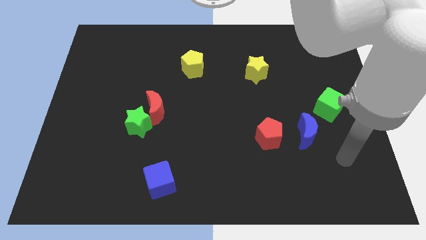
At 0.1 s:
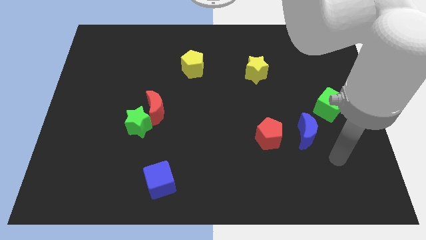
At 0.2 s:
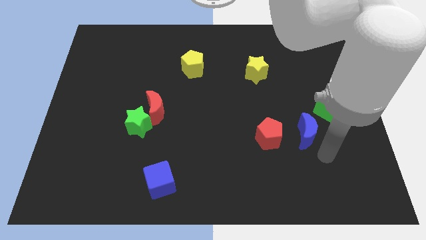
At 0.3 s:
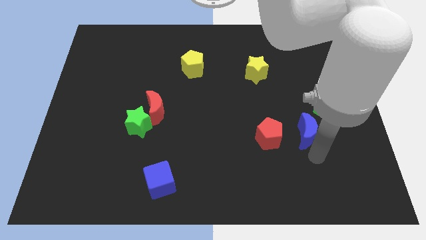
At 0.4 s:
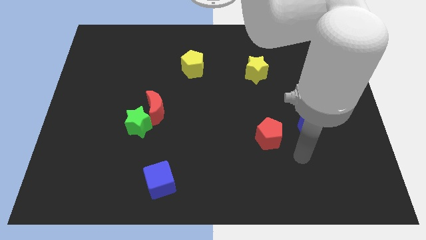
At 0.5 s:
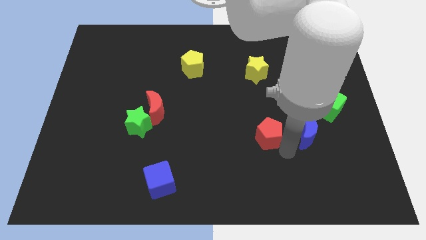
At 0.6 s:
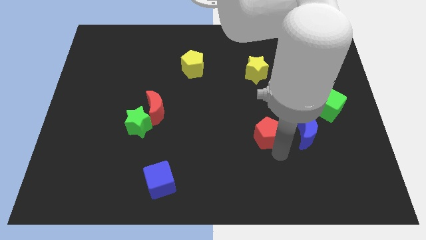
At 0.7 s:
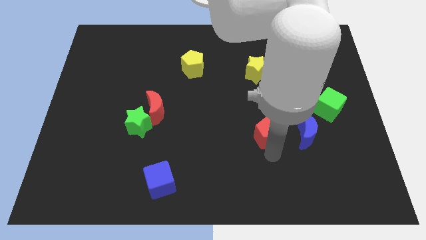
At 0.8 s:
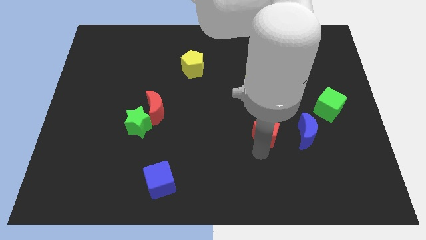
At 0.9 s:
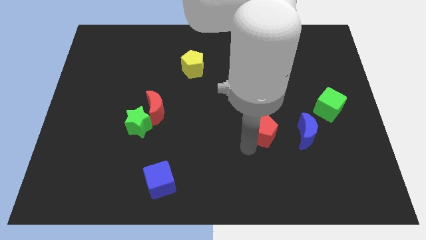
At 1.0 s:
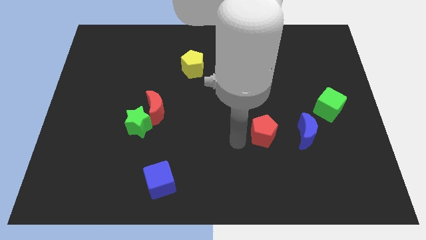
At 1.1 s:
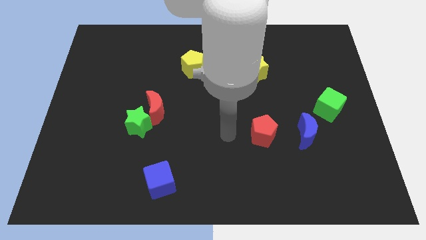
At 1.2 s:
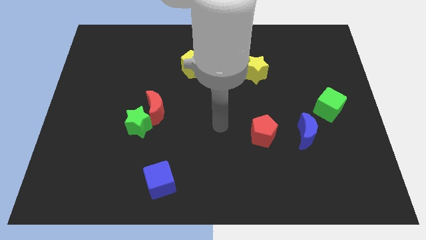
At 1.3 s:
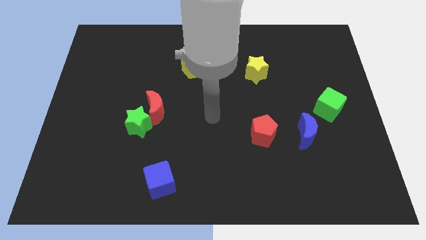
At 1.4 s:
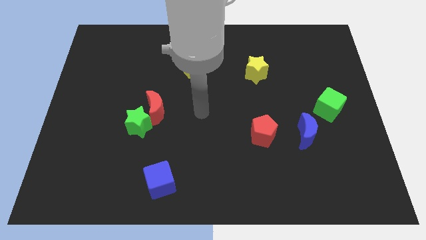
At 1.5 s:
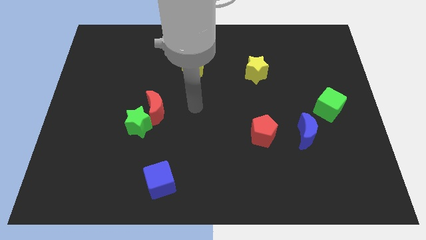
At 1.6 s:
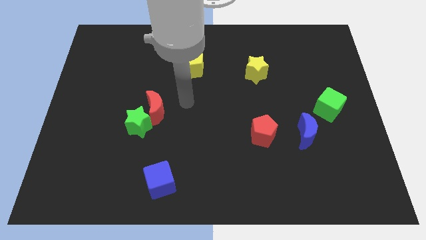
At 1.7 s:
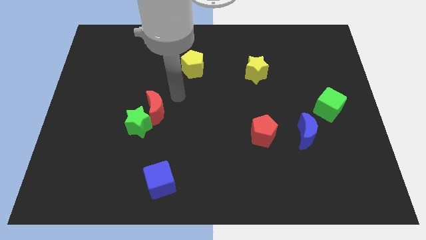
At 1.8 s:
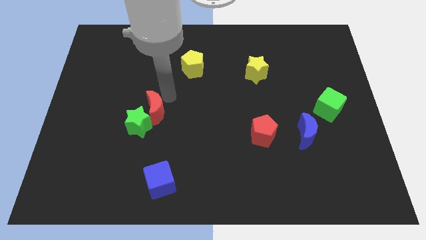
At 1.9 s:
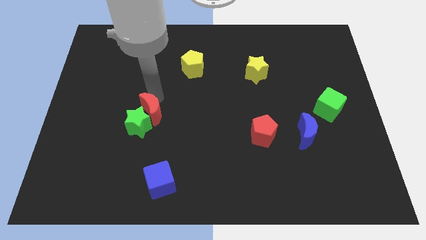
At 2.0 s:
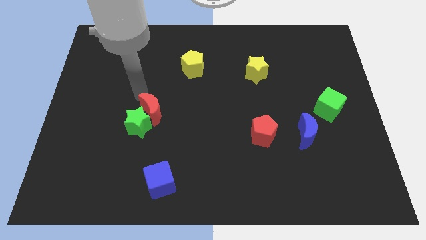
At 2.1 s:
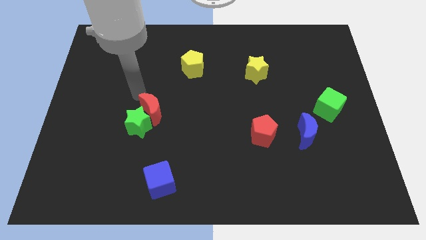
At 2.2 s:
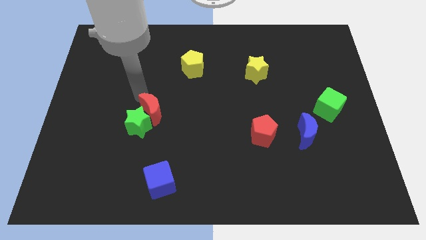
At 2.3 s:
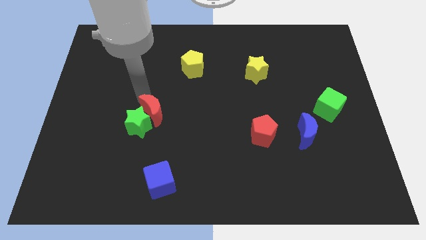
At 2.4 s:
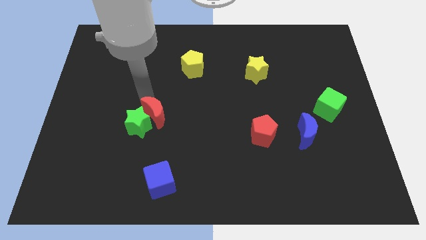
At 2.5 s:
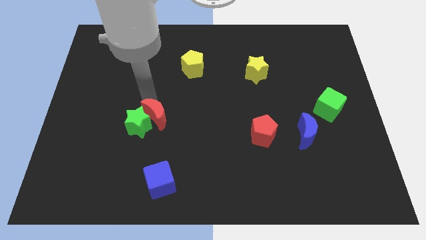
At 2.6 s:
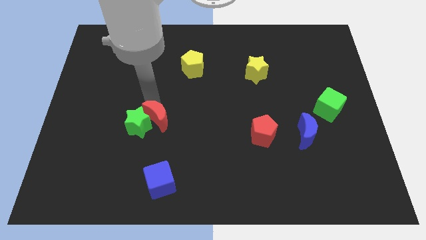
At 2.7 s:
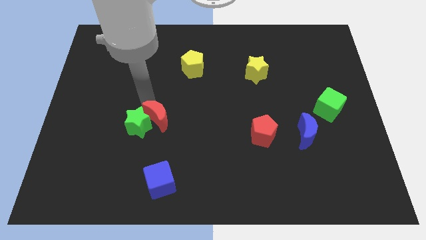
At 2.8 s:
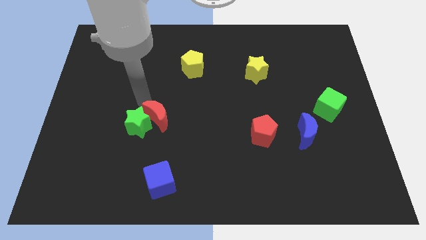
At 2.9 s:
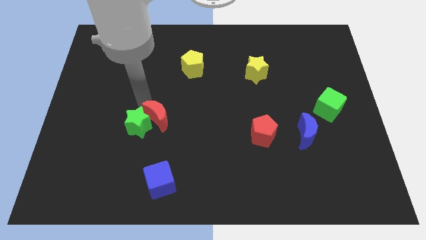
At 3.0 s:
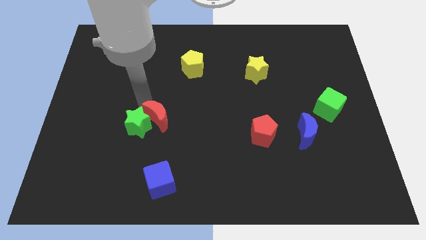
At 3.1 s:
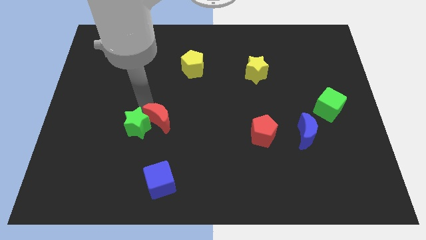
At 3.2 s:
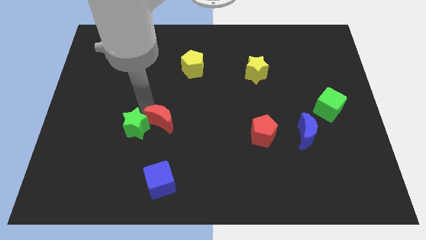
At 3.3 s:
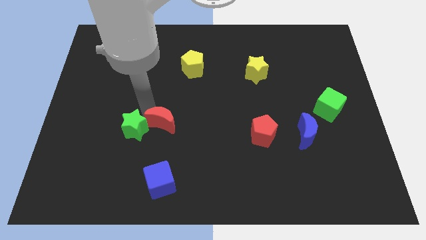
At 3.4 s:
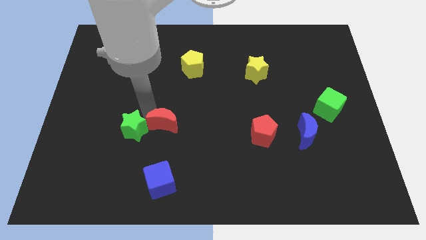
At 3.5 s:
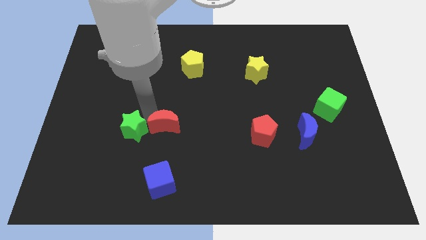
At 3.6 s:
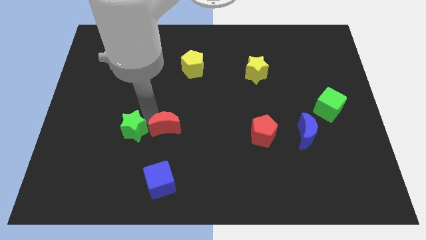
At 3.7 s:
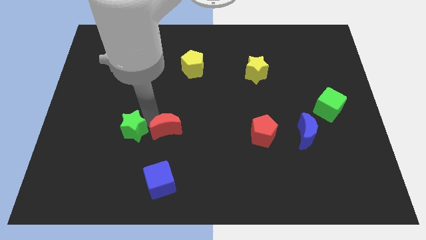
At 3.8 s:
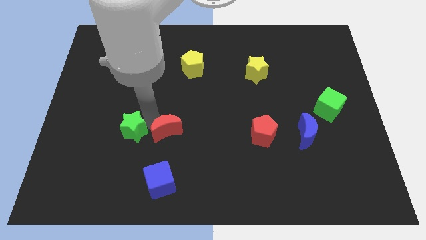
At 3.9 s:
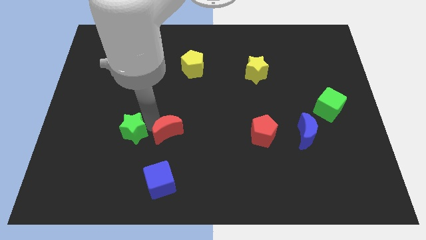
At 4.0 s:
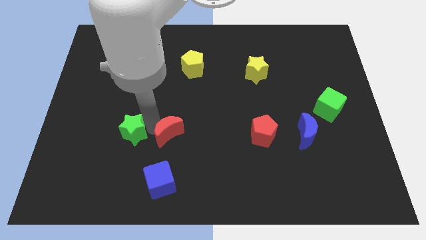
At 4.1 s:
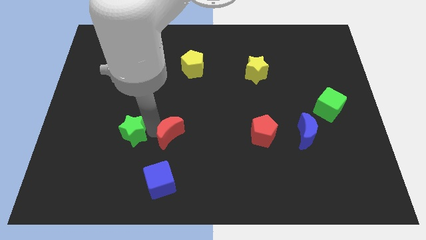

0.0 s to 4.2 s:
push the red moon down and right diagonally a bit

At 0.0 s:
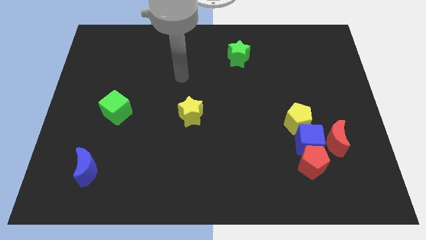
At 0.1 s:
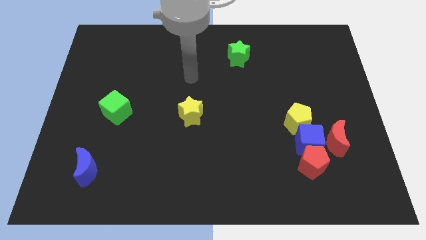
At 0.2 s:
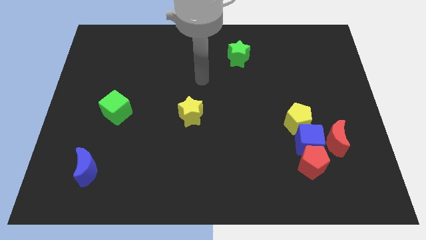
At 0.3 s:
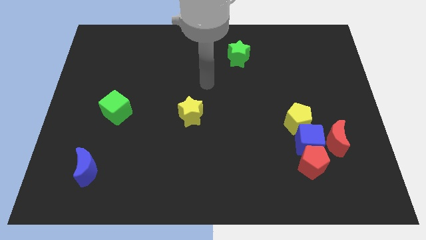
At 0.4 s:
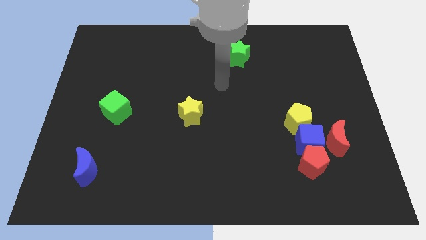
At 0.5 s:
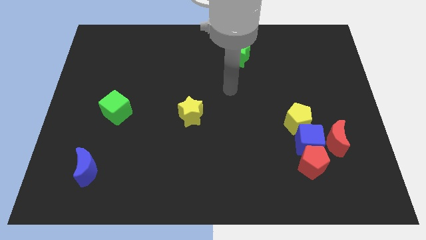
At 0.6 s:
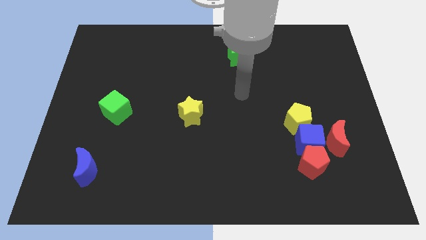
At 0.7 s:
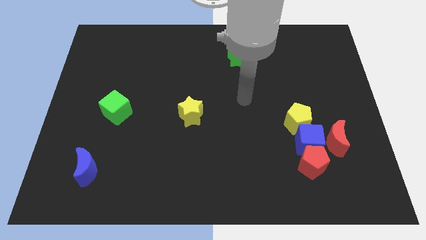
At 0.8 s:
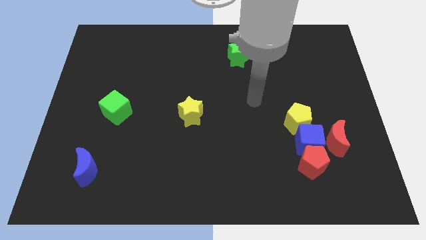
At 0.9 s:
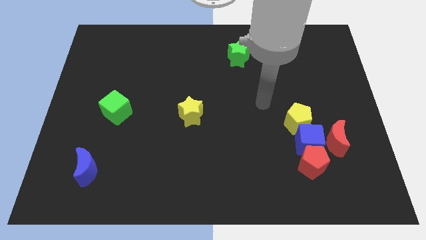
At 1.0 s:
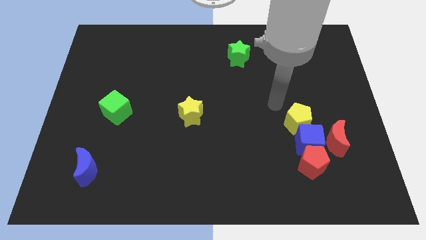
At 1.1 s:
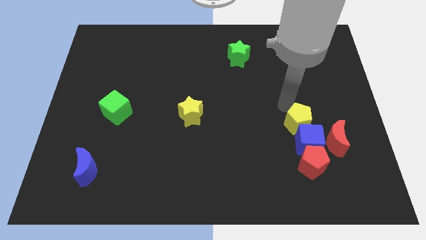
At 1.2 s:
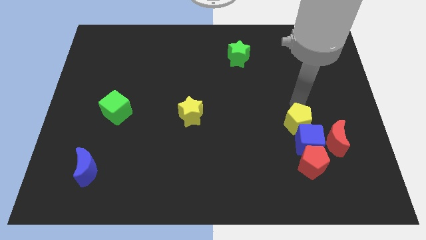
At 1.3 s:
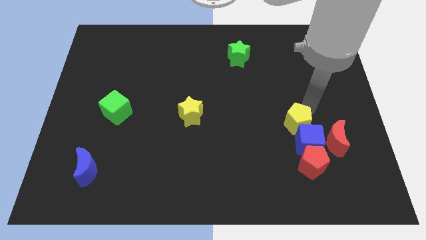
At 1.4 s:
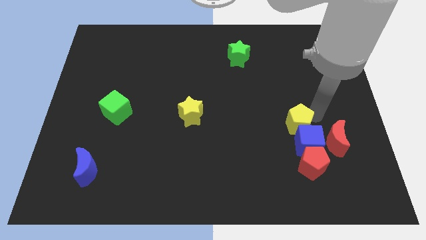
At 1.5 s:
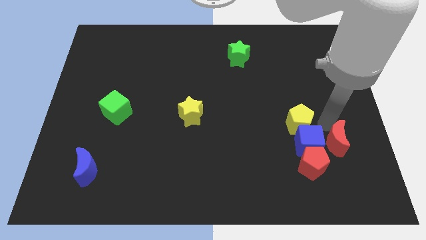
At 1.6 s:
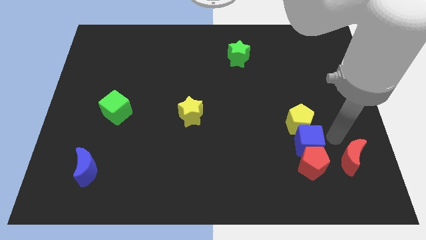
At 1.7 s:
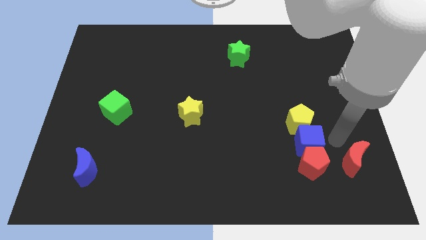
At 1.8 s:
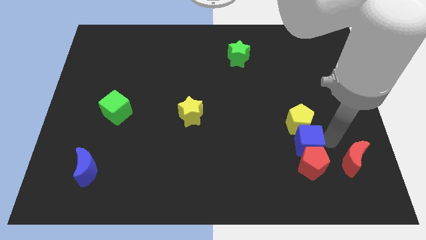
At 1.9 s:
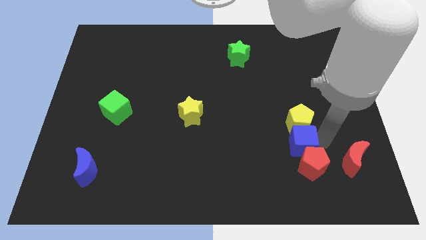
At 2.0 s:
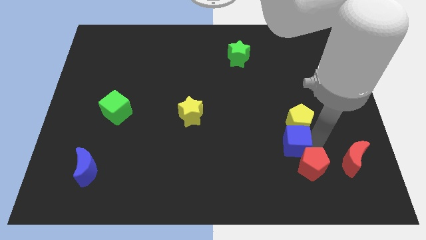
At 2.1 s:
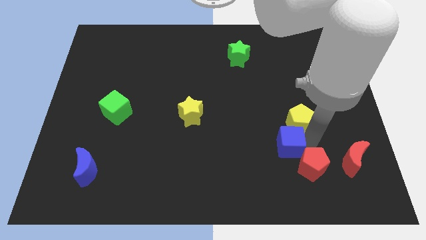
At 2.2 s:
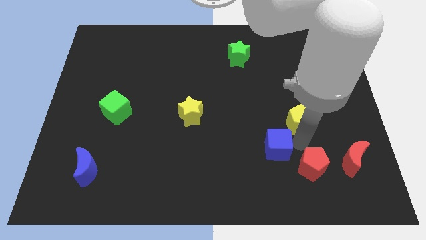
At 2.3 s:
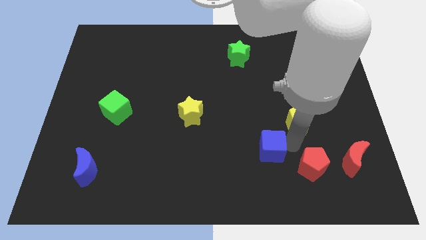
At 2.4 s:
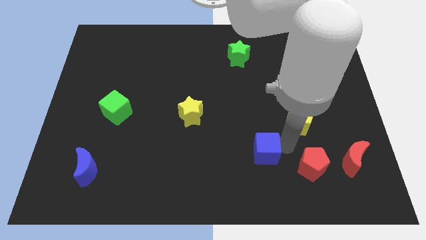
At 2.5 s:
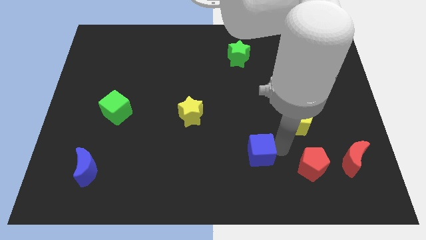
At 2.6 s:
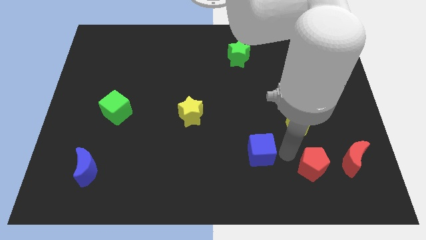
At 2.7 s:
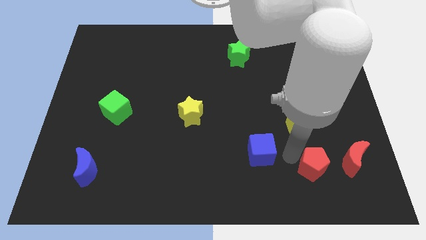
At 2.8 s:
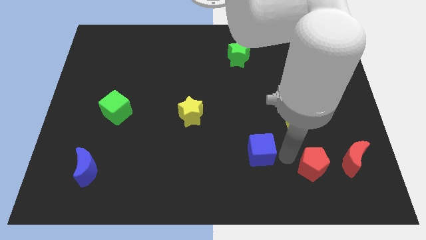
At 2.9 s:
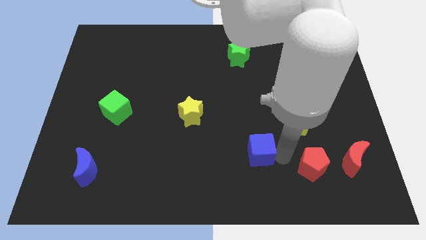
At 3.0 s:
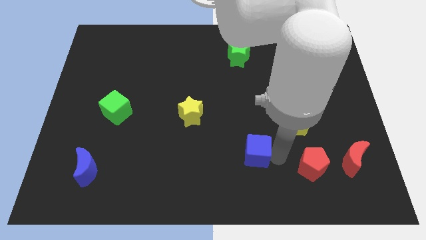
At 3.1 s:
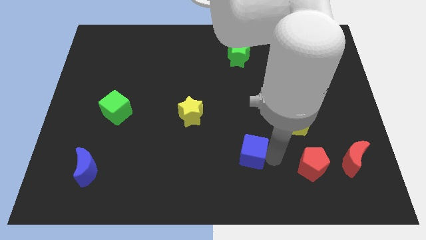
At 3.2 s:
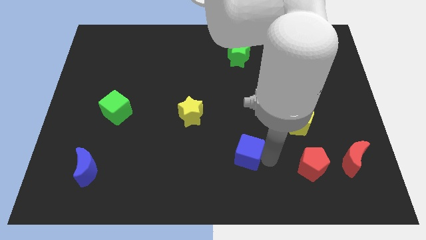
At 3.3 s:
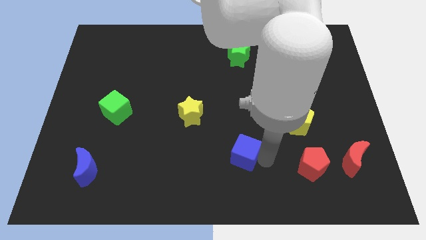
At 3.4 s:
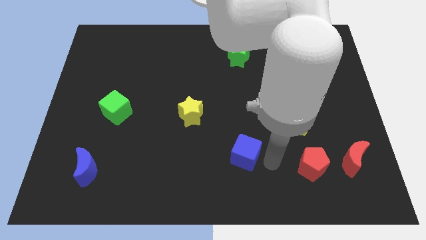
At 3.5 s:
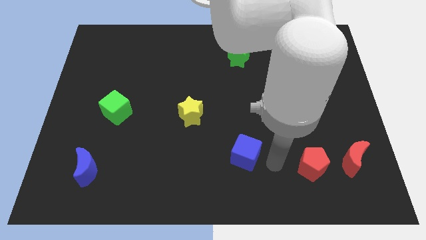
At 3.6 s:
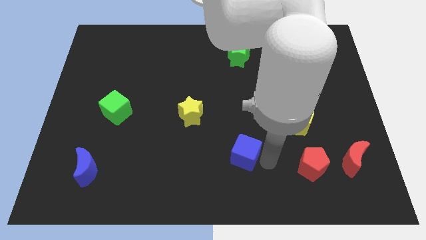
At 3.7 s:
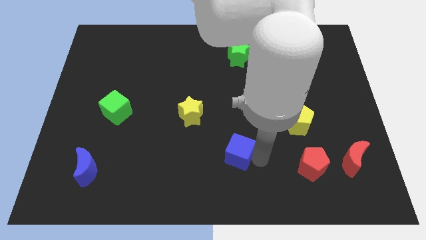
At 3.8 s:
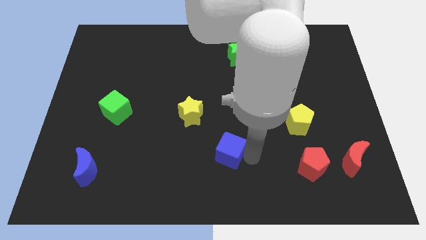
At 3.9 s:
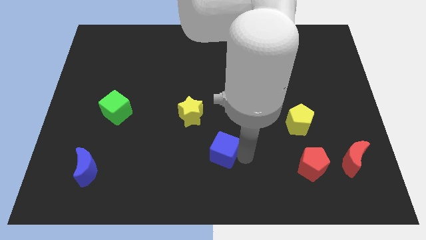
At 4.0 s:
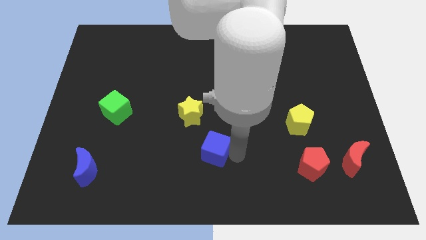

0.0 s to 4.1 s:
push the blue cube left

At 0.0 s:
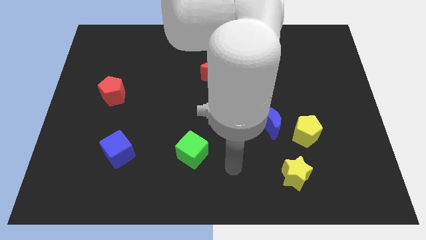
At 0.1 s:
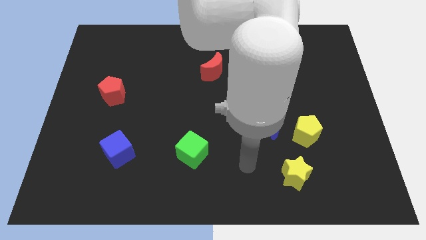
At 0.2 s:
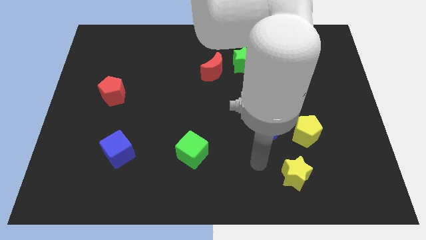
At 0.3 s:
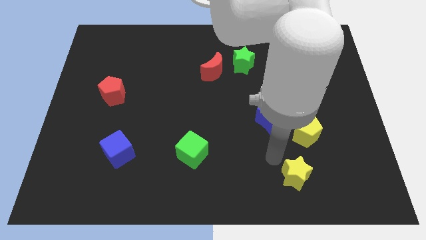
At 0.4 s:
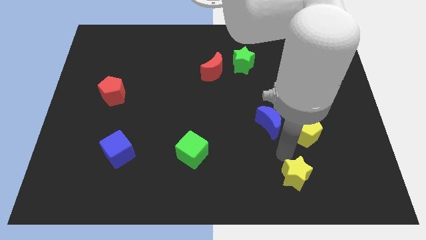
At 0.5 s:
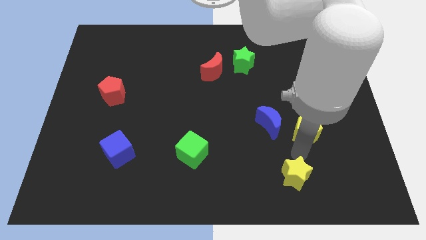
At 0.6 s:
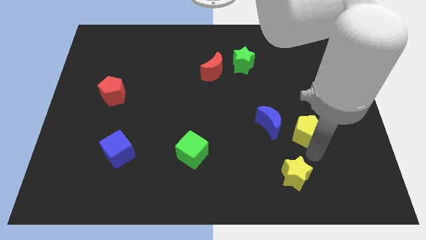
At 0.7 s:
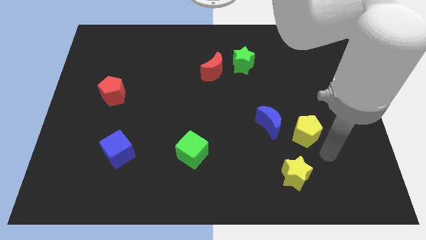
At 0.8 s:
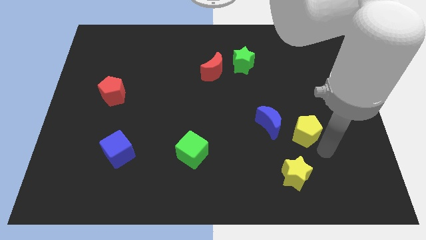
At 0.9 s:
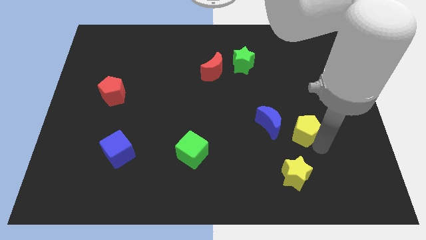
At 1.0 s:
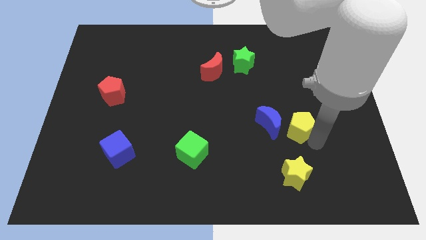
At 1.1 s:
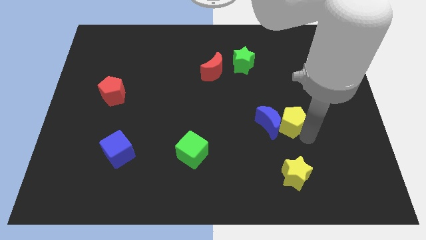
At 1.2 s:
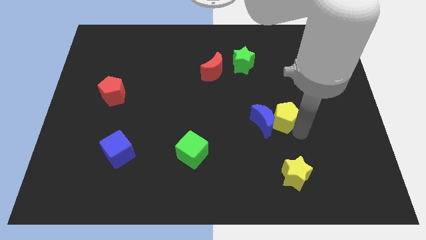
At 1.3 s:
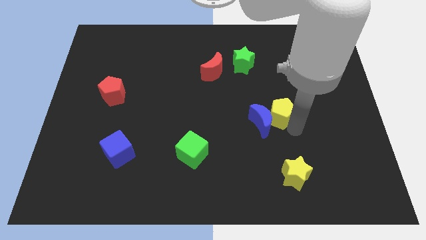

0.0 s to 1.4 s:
push the yellow pentagon upwards and to the left diagonally a bit
